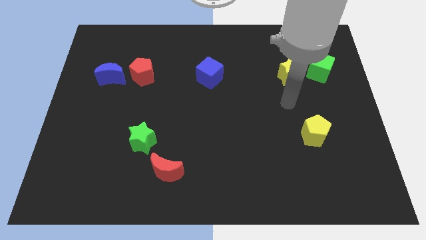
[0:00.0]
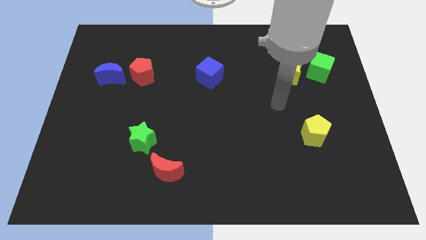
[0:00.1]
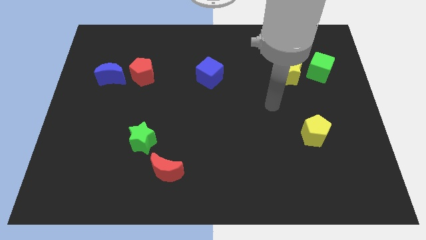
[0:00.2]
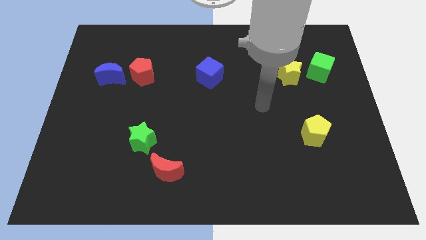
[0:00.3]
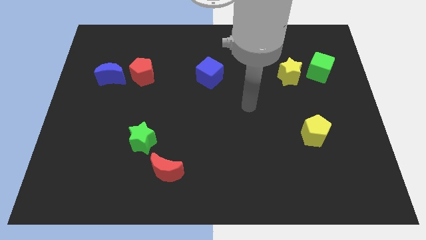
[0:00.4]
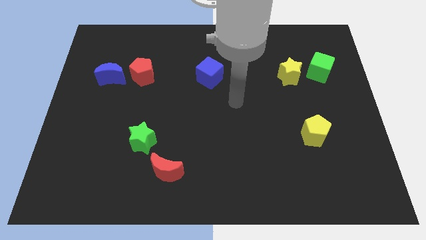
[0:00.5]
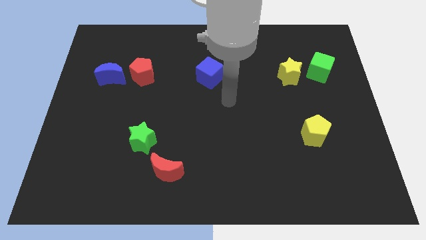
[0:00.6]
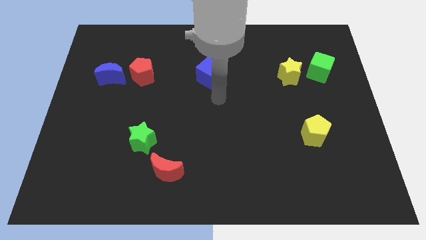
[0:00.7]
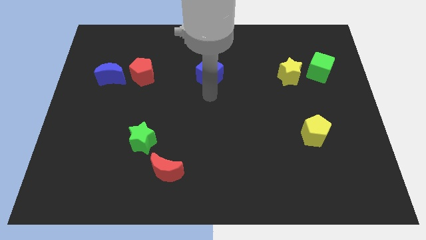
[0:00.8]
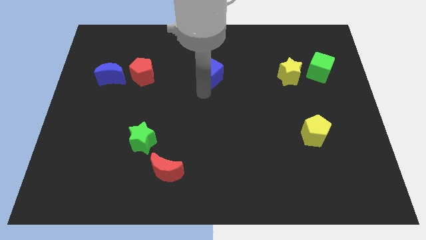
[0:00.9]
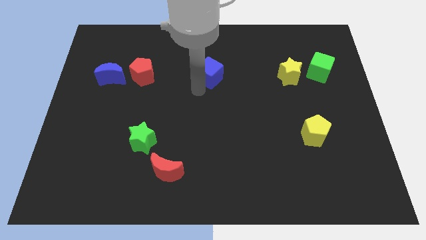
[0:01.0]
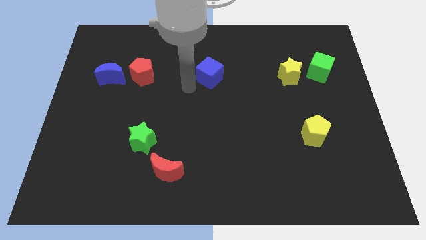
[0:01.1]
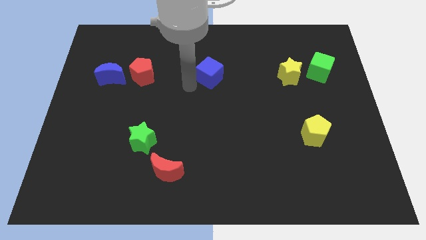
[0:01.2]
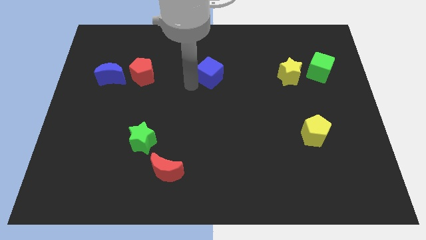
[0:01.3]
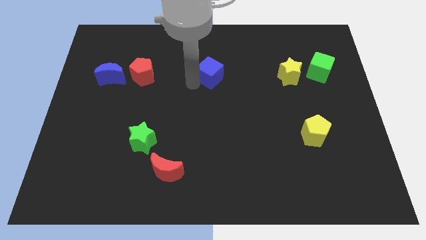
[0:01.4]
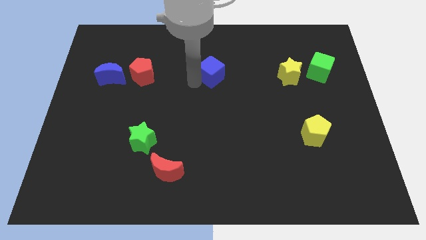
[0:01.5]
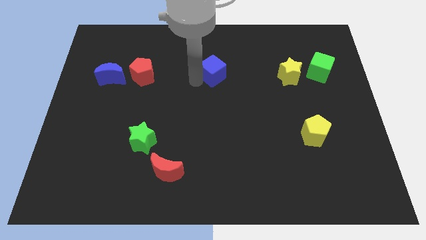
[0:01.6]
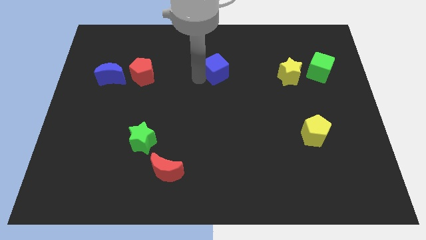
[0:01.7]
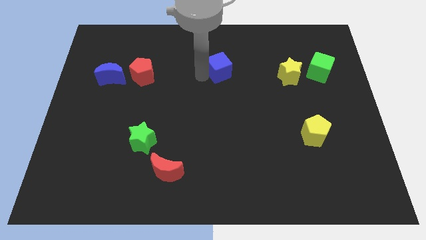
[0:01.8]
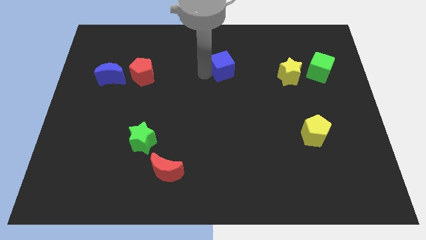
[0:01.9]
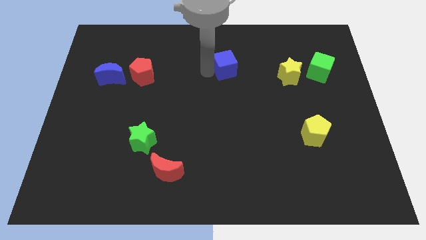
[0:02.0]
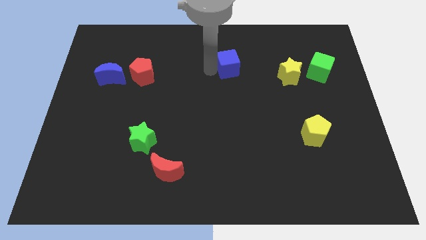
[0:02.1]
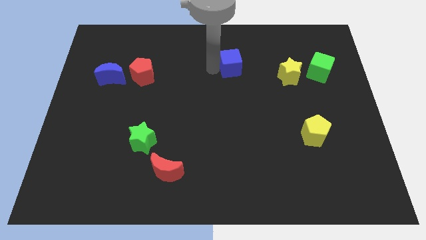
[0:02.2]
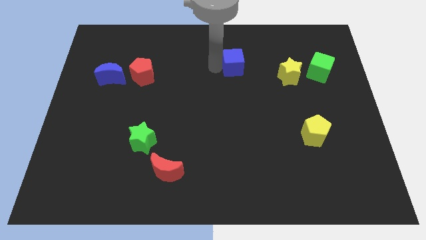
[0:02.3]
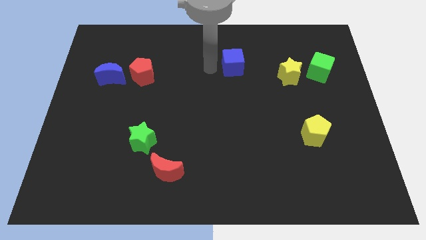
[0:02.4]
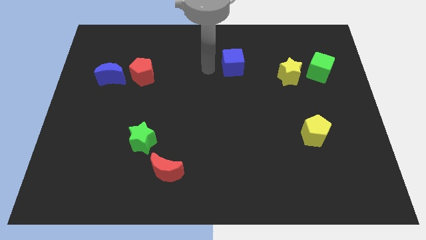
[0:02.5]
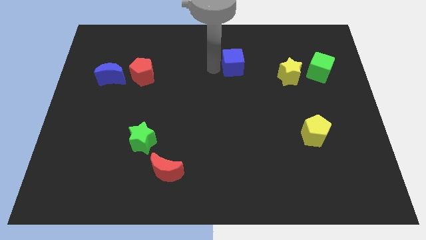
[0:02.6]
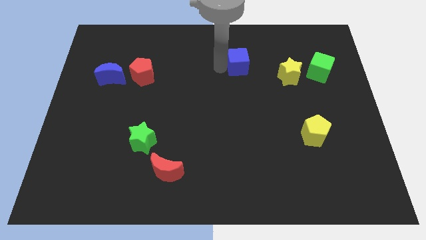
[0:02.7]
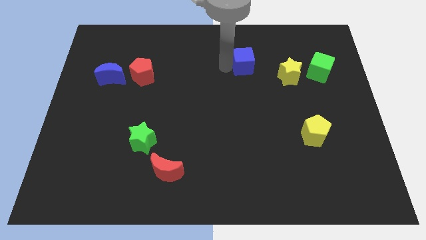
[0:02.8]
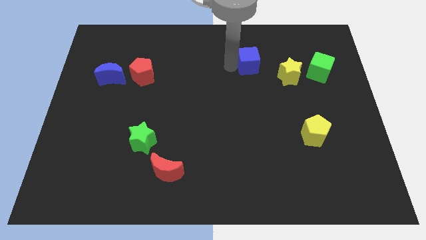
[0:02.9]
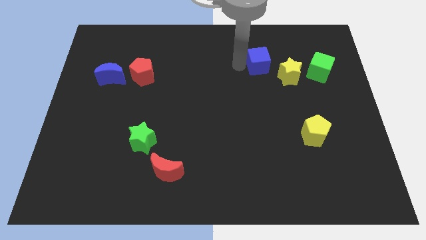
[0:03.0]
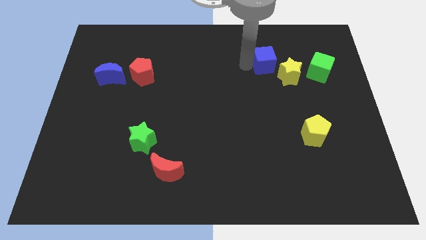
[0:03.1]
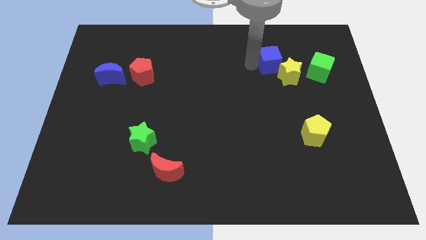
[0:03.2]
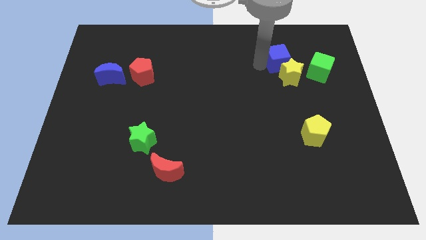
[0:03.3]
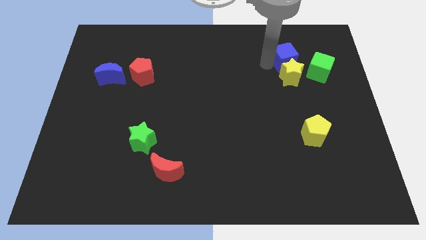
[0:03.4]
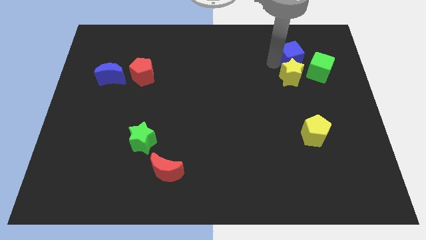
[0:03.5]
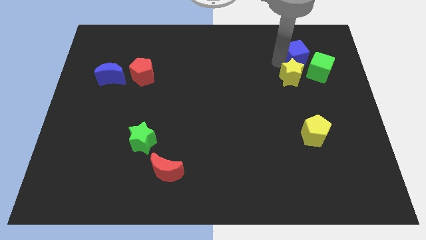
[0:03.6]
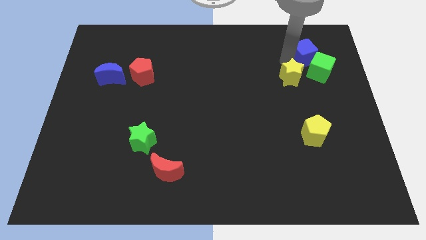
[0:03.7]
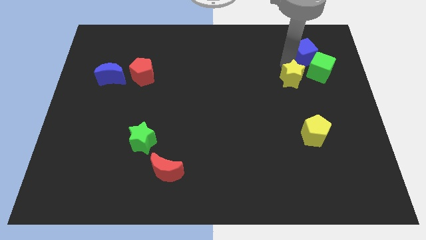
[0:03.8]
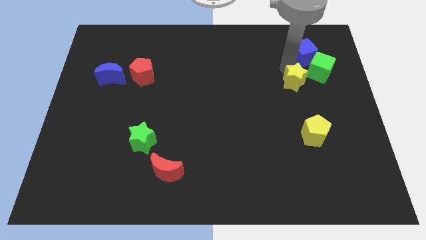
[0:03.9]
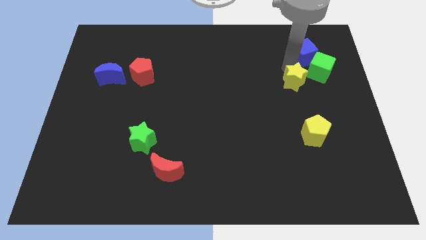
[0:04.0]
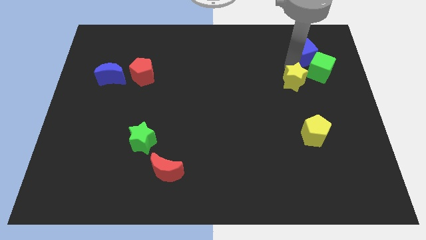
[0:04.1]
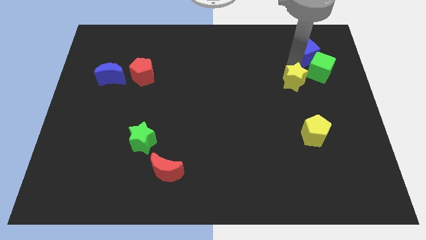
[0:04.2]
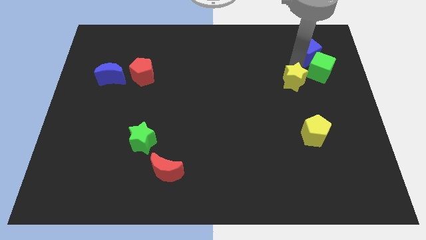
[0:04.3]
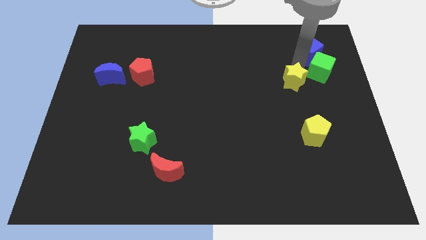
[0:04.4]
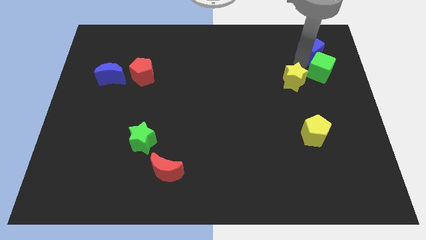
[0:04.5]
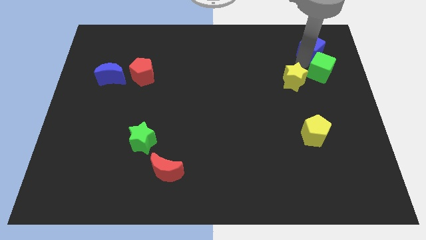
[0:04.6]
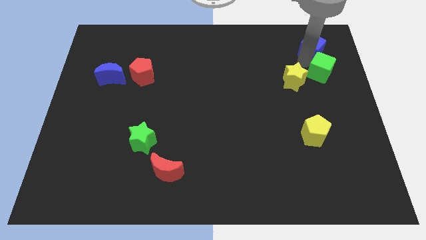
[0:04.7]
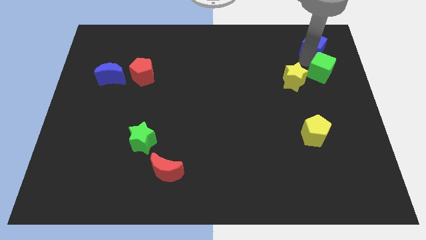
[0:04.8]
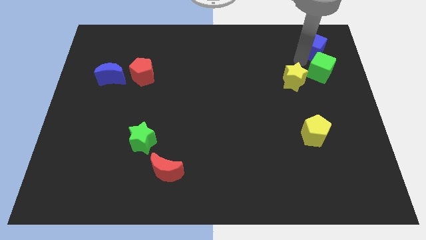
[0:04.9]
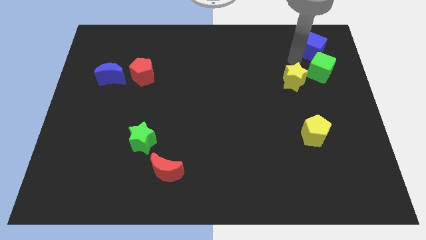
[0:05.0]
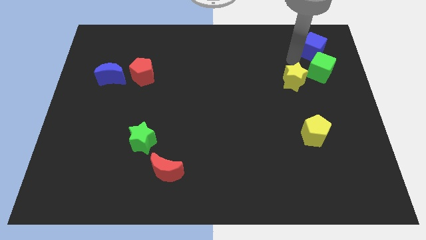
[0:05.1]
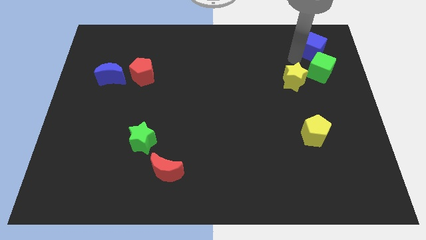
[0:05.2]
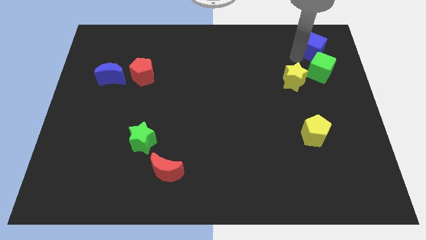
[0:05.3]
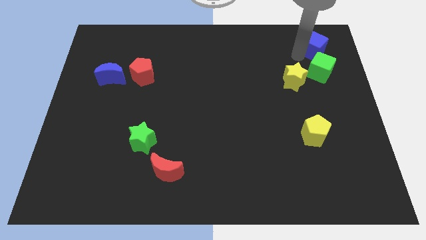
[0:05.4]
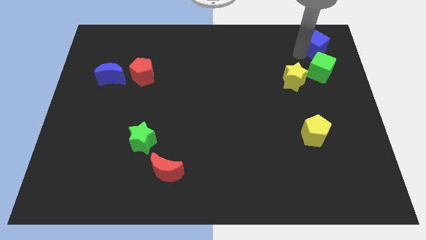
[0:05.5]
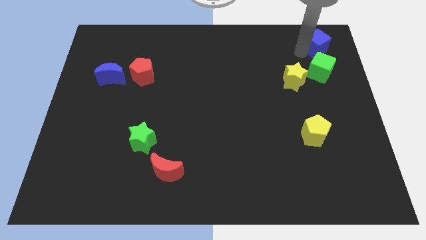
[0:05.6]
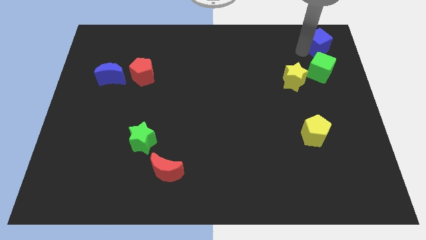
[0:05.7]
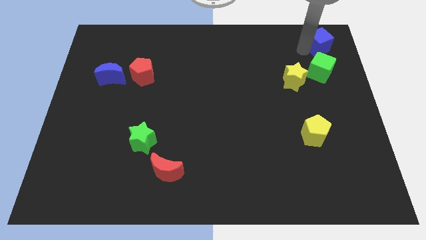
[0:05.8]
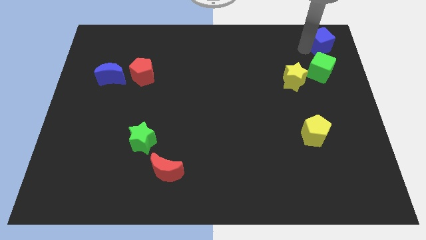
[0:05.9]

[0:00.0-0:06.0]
slide the blue cube to the top right

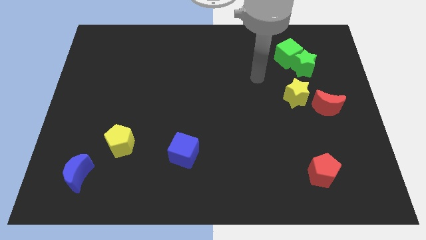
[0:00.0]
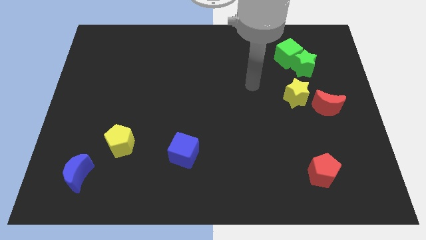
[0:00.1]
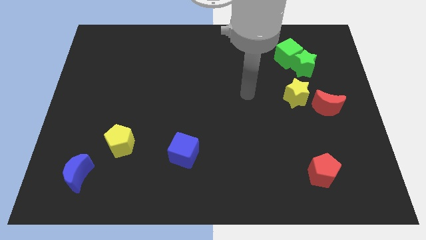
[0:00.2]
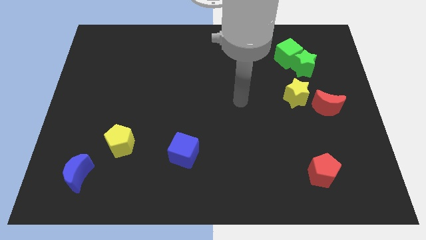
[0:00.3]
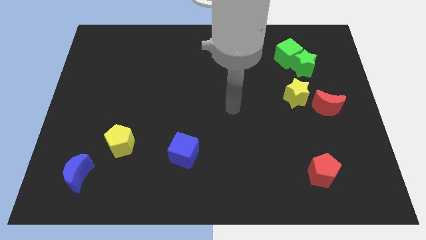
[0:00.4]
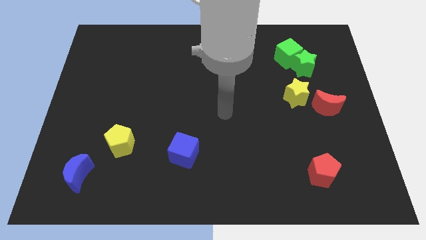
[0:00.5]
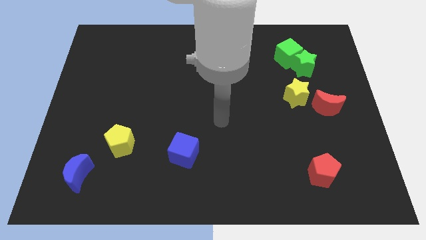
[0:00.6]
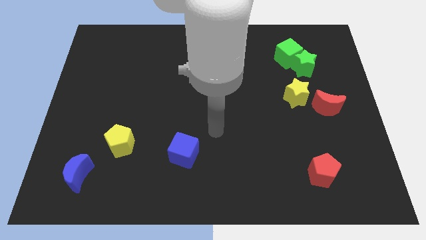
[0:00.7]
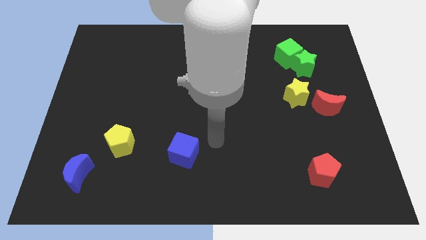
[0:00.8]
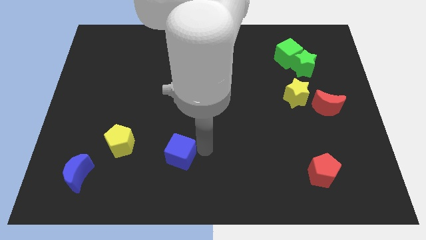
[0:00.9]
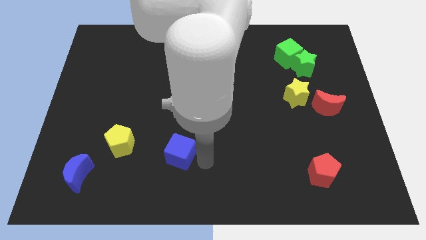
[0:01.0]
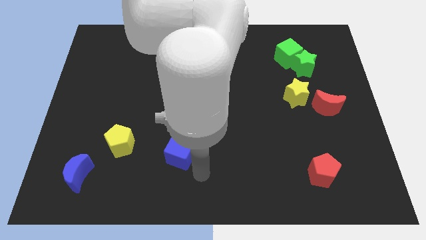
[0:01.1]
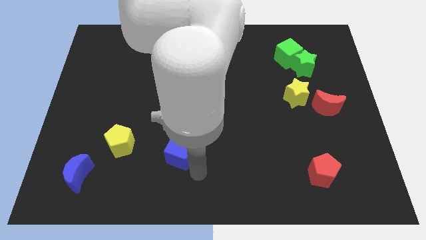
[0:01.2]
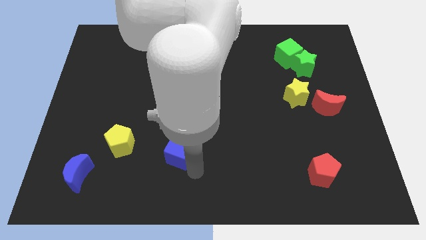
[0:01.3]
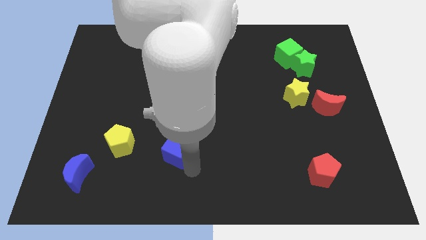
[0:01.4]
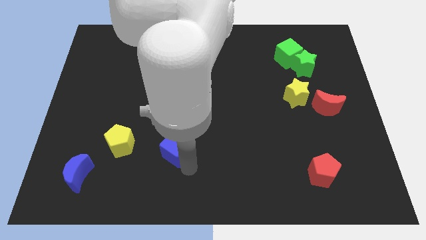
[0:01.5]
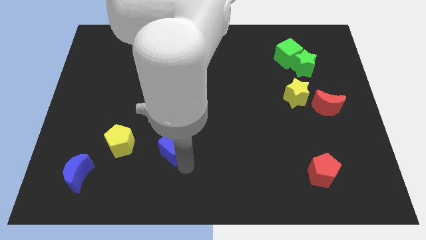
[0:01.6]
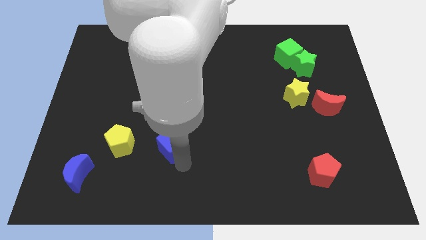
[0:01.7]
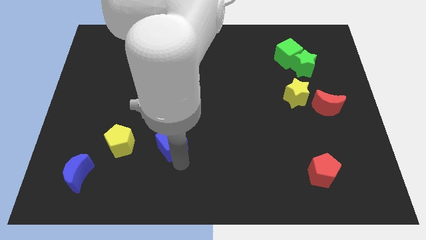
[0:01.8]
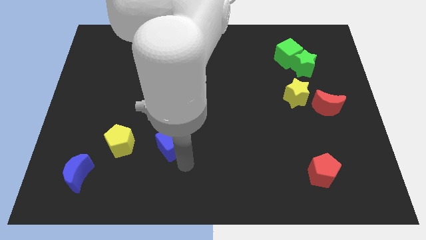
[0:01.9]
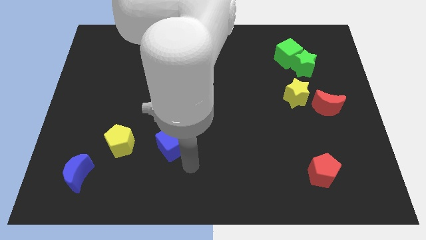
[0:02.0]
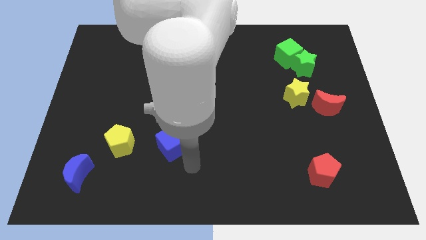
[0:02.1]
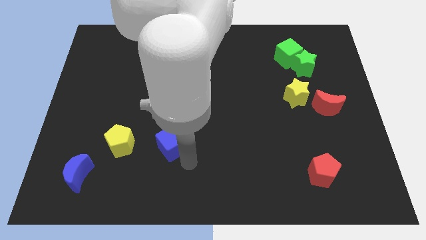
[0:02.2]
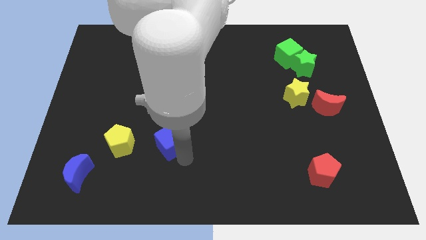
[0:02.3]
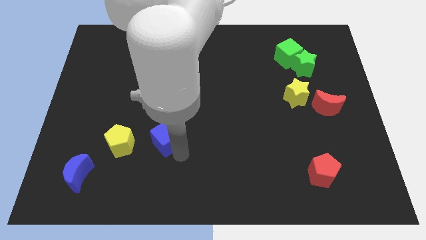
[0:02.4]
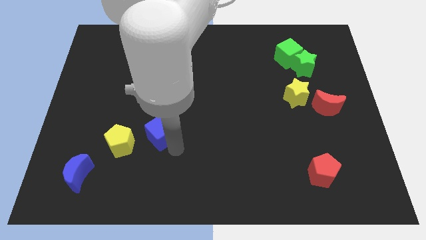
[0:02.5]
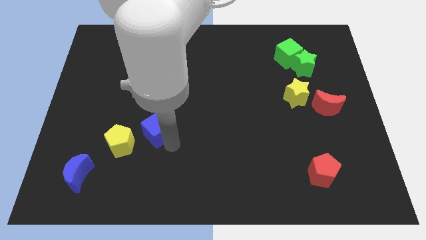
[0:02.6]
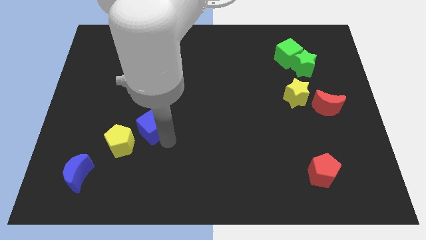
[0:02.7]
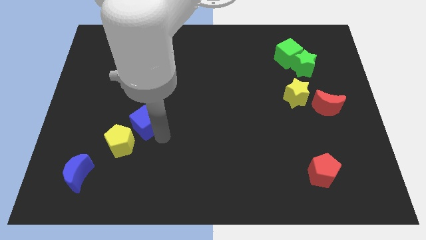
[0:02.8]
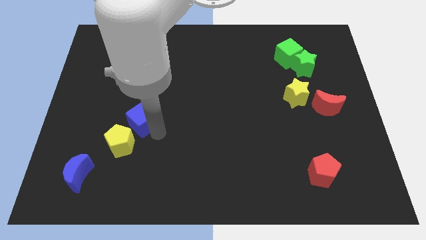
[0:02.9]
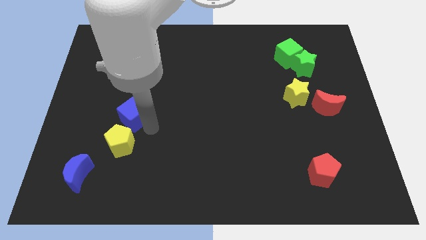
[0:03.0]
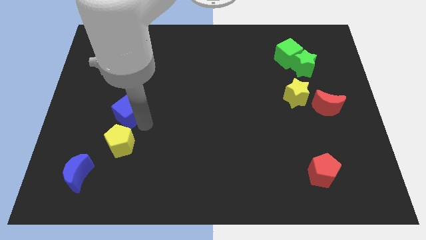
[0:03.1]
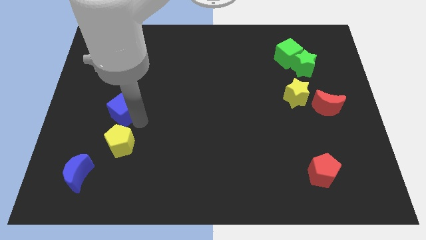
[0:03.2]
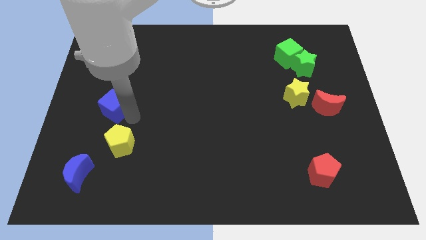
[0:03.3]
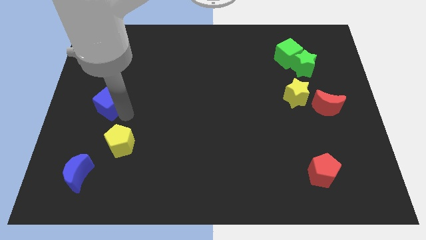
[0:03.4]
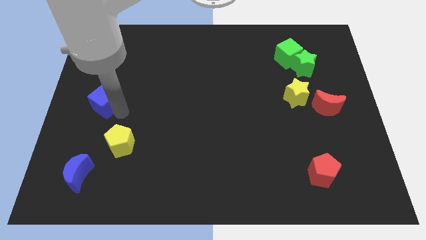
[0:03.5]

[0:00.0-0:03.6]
slide the blue cube to the center left
